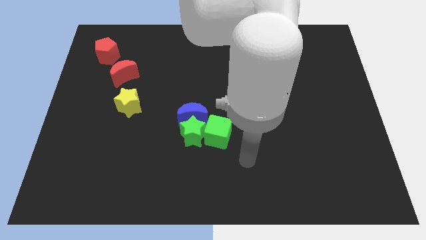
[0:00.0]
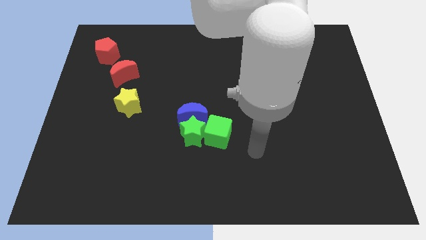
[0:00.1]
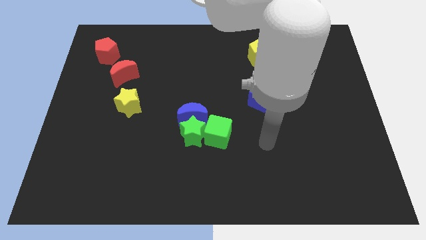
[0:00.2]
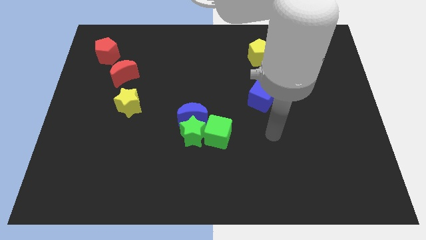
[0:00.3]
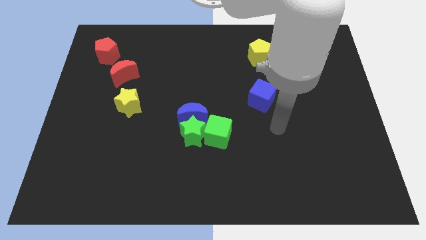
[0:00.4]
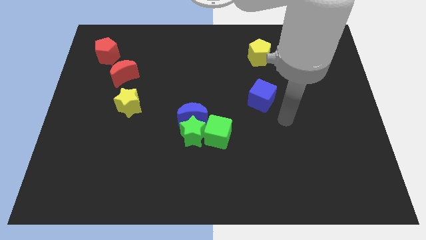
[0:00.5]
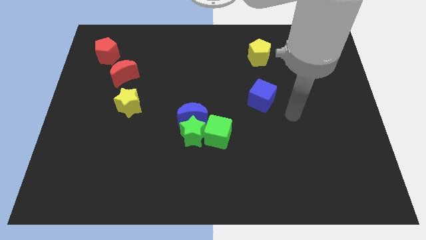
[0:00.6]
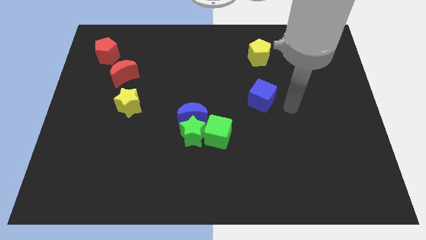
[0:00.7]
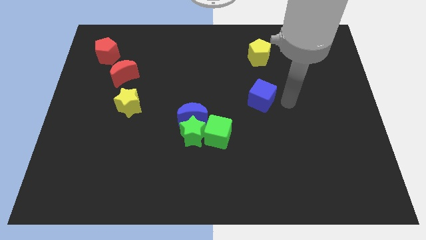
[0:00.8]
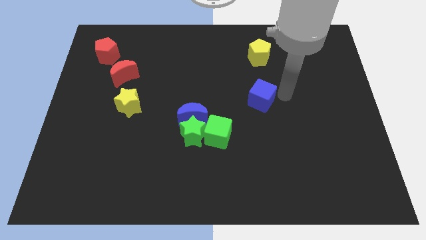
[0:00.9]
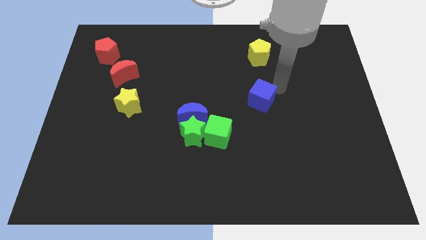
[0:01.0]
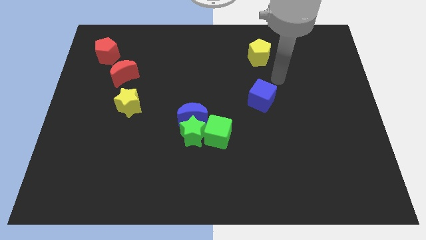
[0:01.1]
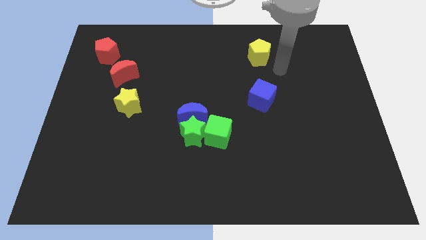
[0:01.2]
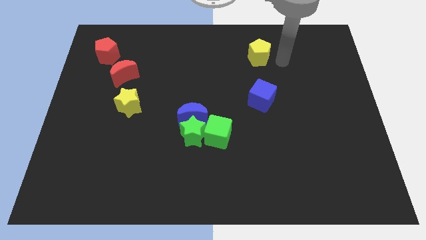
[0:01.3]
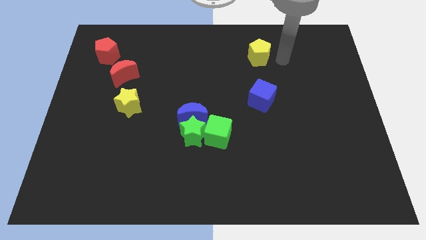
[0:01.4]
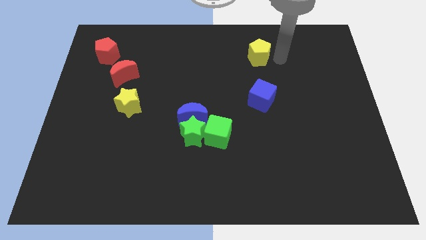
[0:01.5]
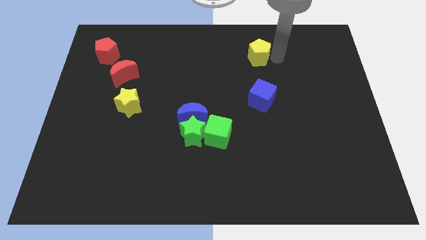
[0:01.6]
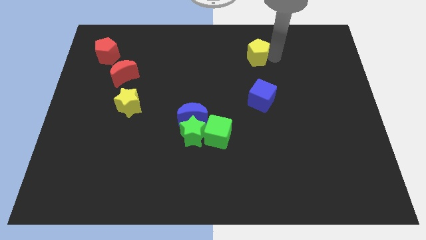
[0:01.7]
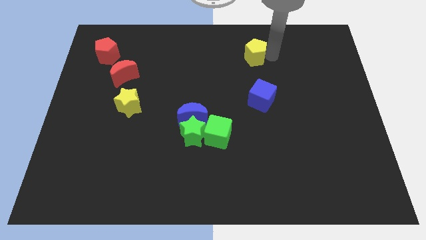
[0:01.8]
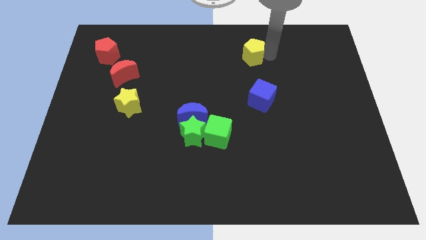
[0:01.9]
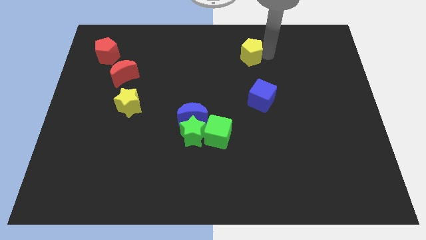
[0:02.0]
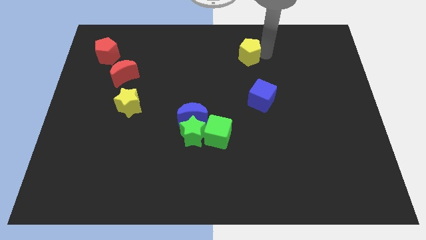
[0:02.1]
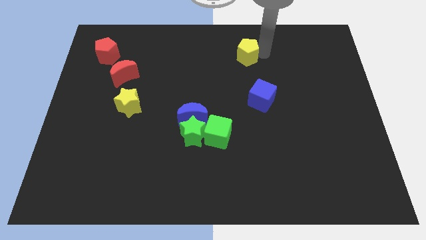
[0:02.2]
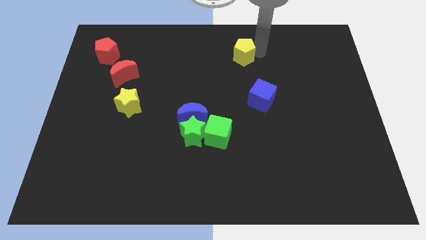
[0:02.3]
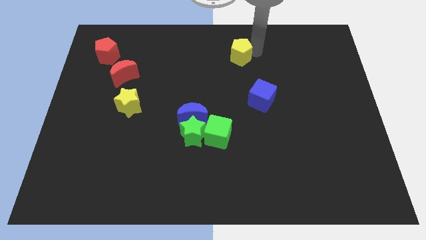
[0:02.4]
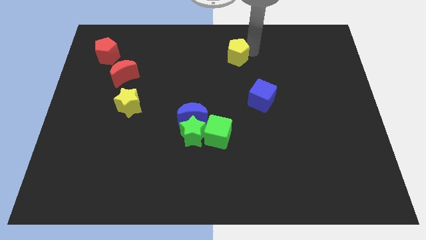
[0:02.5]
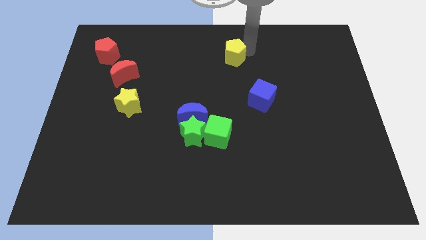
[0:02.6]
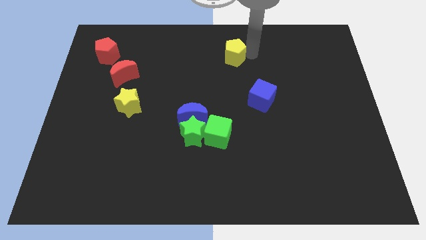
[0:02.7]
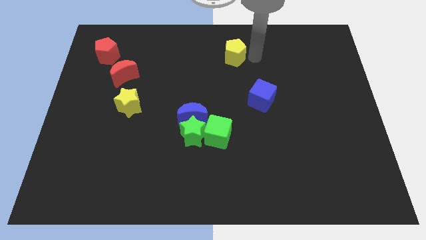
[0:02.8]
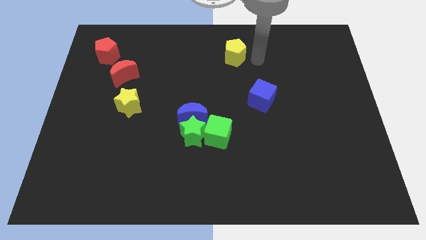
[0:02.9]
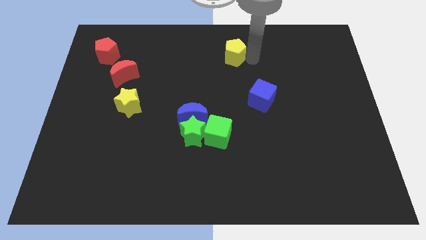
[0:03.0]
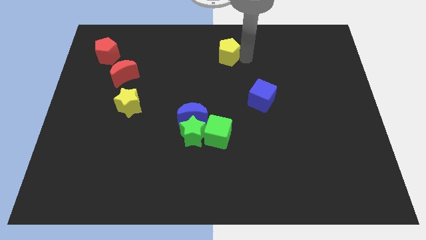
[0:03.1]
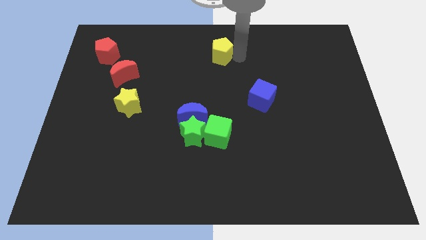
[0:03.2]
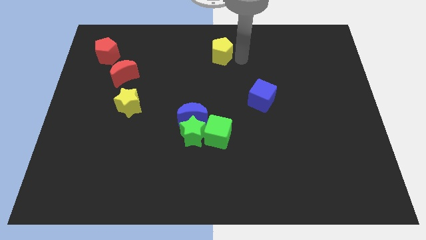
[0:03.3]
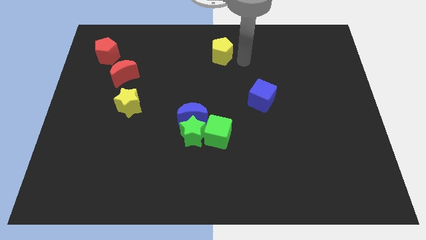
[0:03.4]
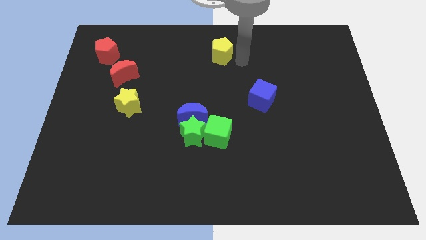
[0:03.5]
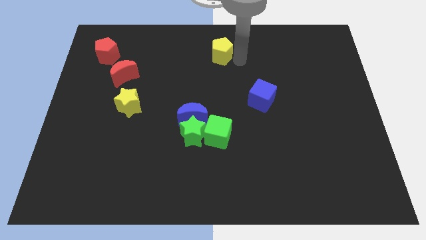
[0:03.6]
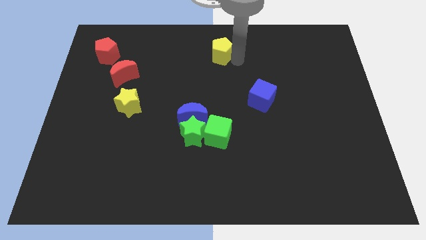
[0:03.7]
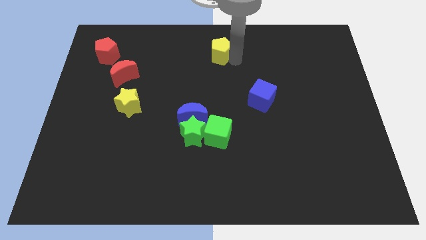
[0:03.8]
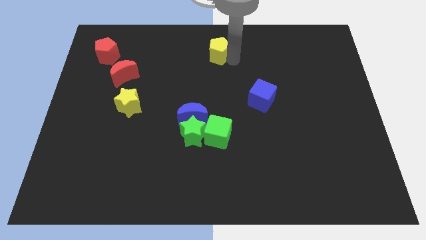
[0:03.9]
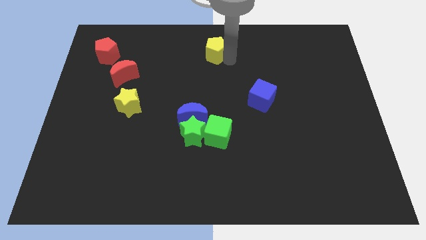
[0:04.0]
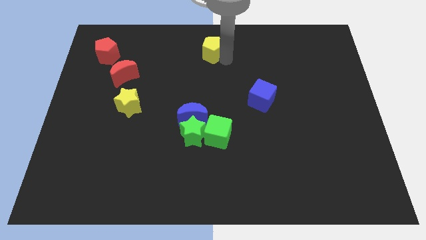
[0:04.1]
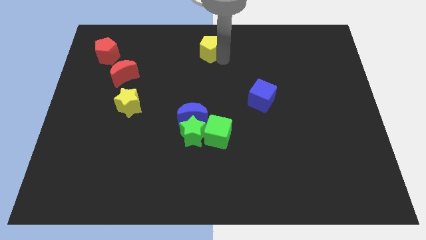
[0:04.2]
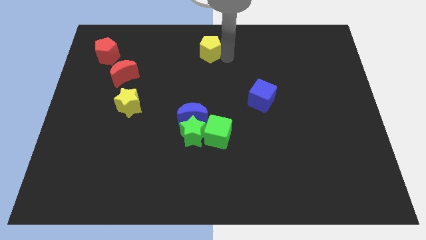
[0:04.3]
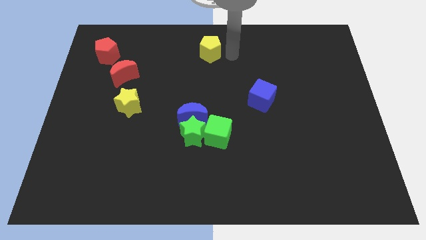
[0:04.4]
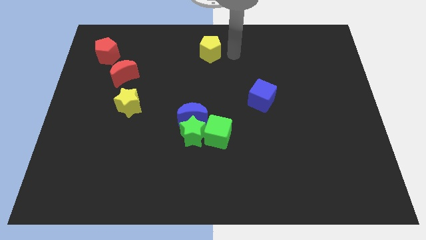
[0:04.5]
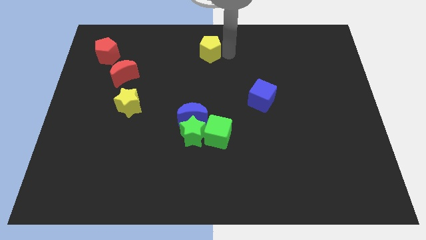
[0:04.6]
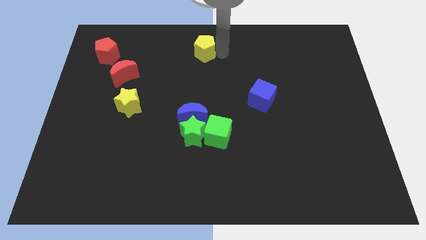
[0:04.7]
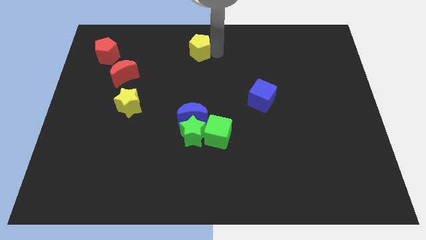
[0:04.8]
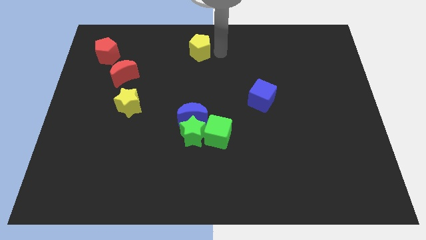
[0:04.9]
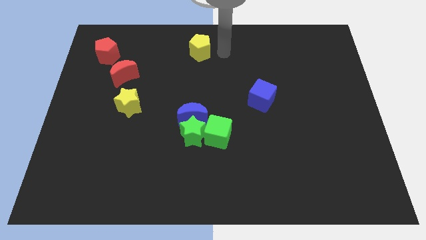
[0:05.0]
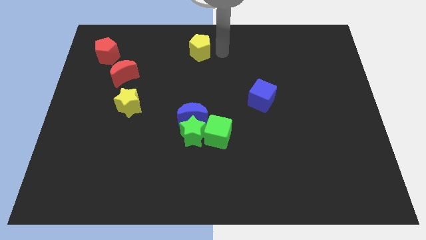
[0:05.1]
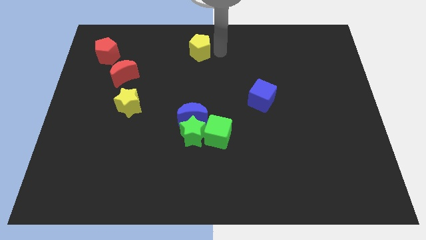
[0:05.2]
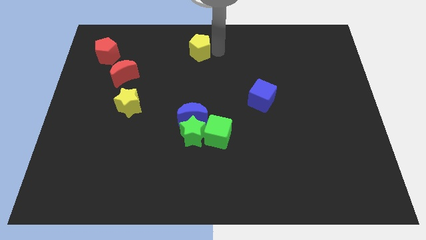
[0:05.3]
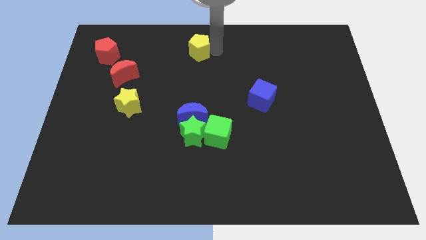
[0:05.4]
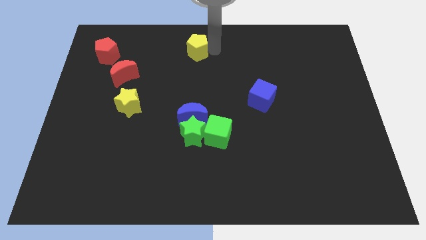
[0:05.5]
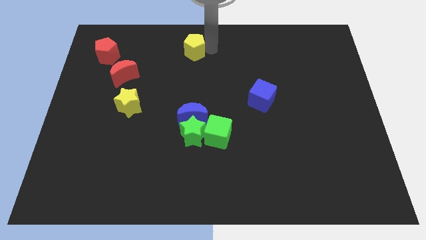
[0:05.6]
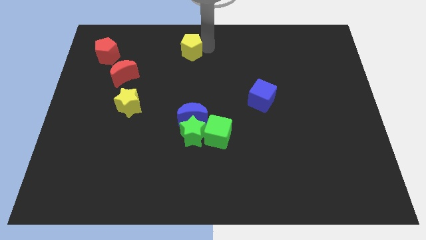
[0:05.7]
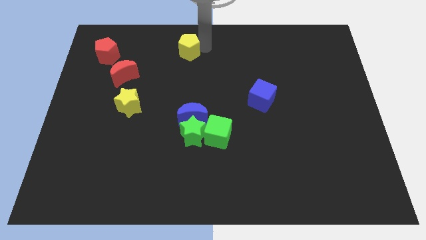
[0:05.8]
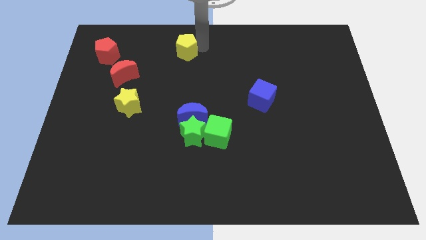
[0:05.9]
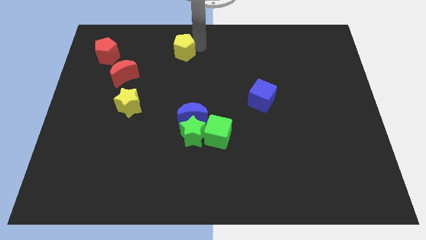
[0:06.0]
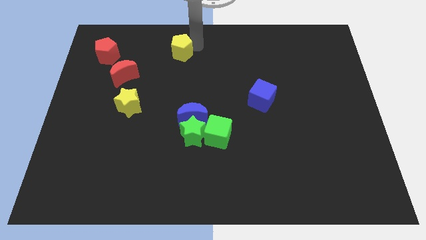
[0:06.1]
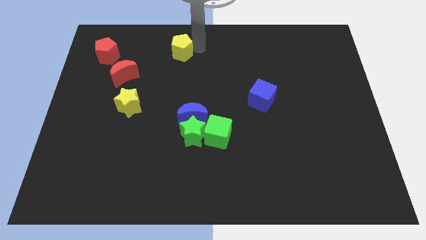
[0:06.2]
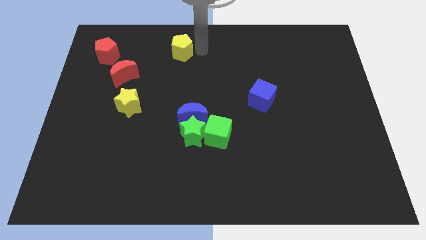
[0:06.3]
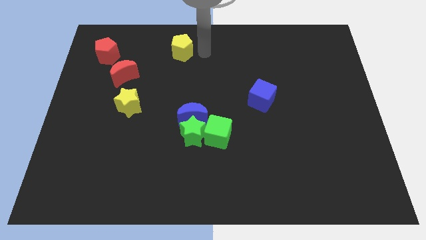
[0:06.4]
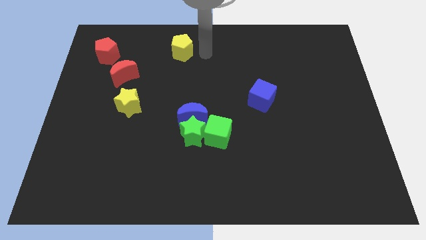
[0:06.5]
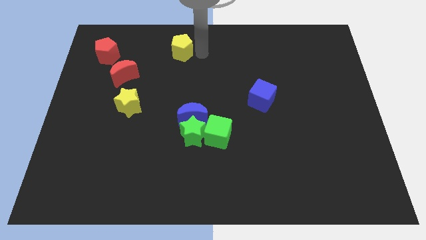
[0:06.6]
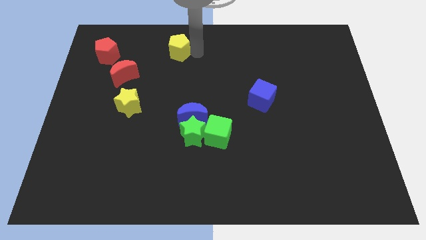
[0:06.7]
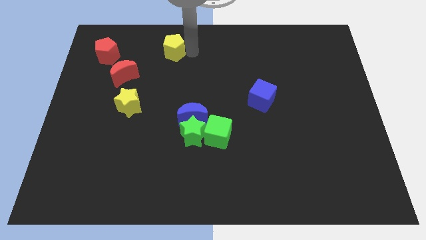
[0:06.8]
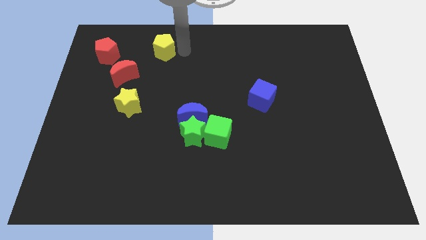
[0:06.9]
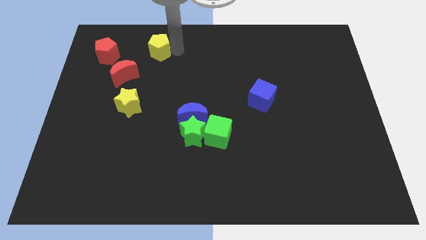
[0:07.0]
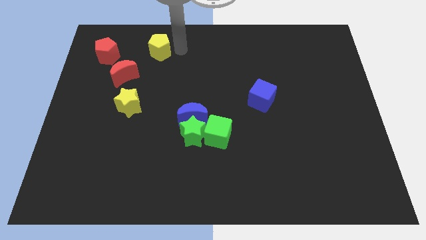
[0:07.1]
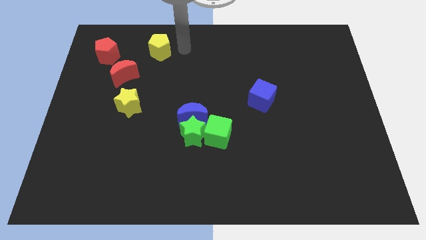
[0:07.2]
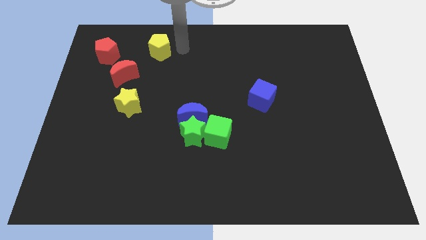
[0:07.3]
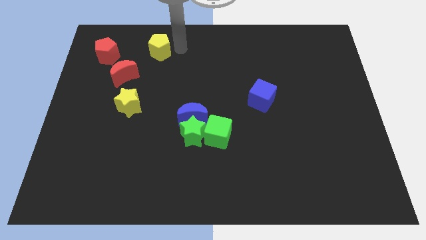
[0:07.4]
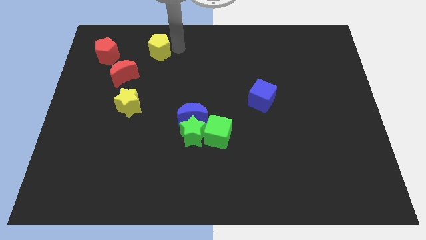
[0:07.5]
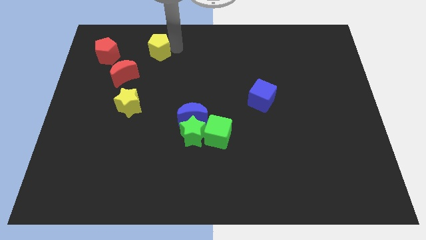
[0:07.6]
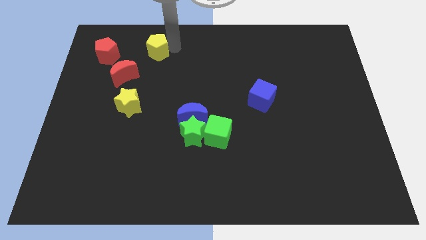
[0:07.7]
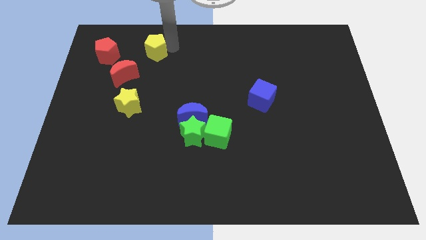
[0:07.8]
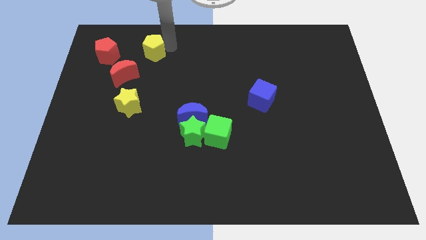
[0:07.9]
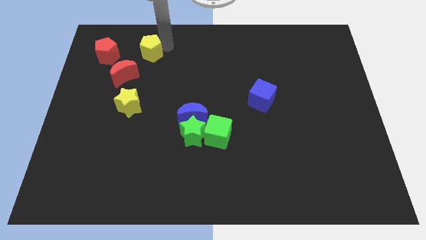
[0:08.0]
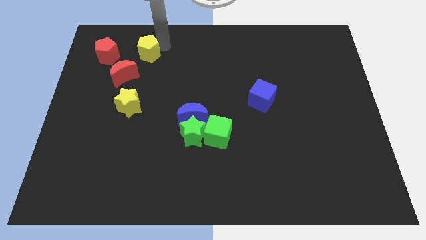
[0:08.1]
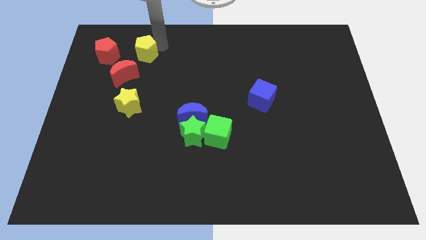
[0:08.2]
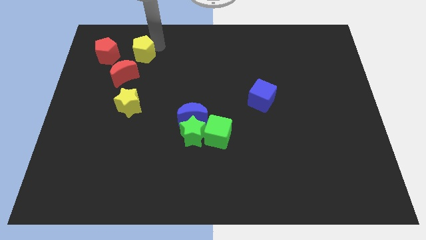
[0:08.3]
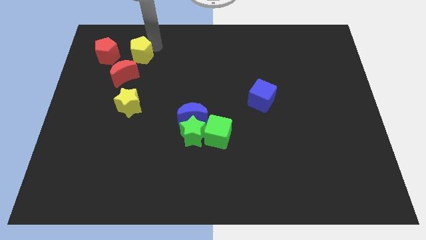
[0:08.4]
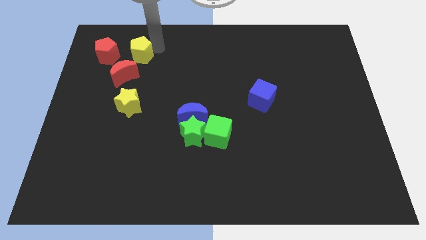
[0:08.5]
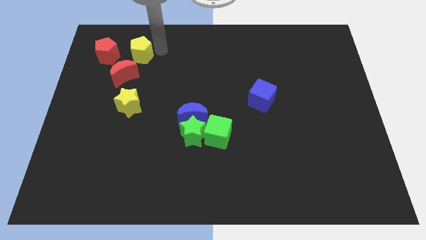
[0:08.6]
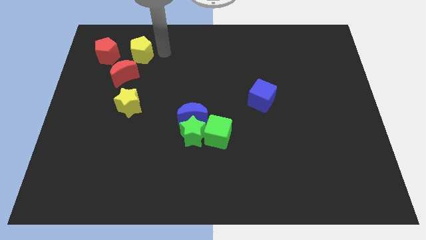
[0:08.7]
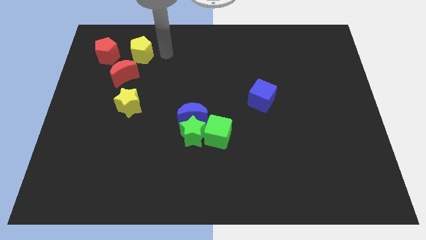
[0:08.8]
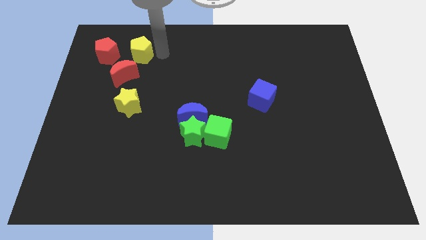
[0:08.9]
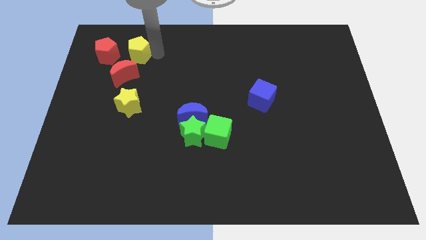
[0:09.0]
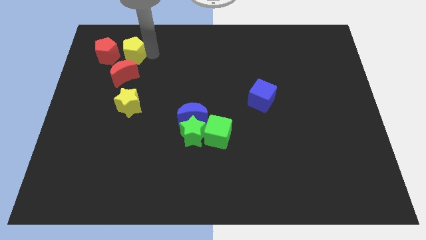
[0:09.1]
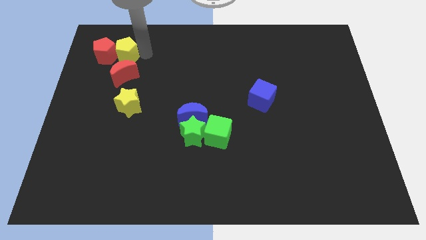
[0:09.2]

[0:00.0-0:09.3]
put the yellow pentagon towards the red pentagon
